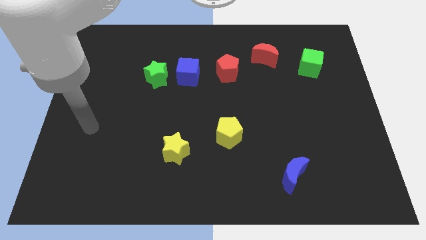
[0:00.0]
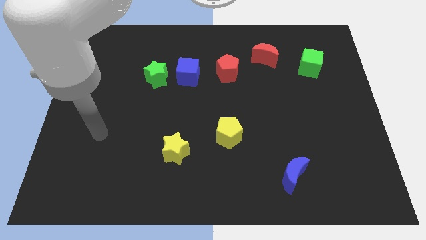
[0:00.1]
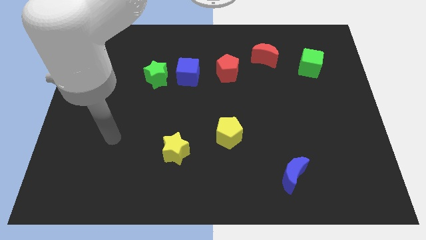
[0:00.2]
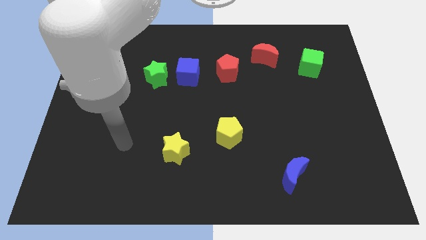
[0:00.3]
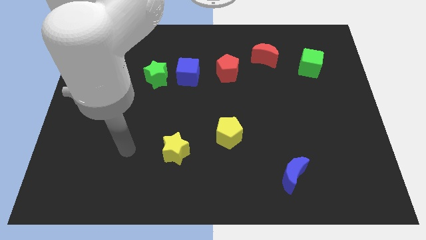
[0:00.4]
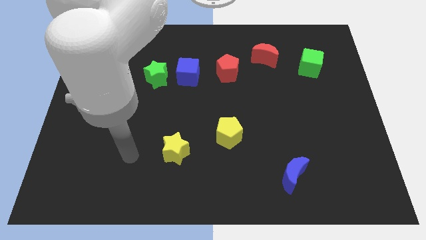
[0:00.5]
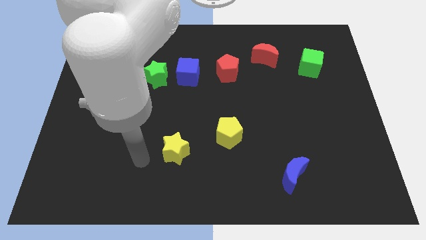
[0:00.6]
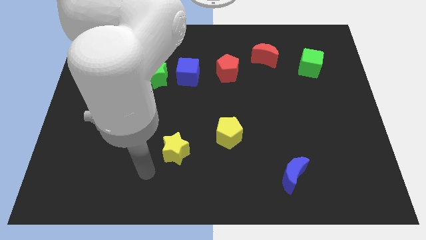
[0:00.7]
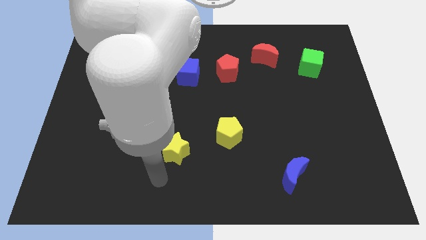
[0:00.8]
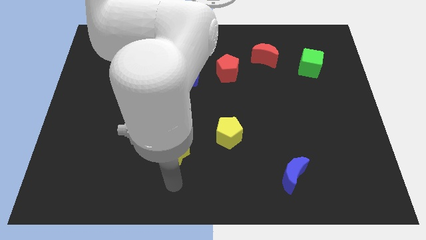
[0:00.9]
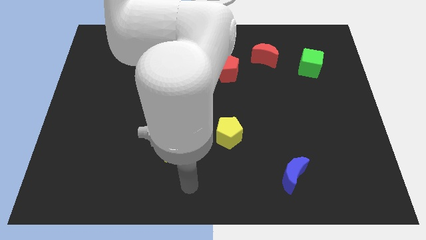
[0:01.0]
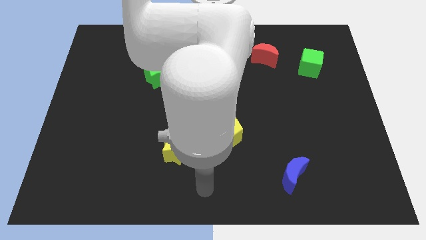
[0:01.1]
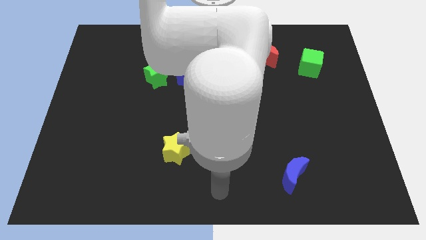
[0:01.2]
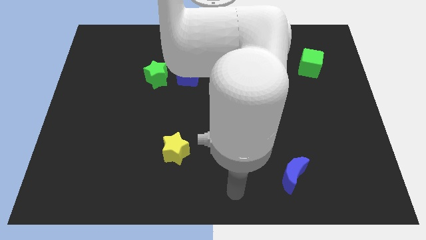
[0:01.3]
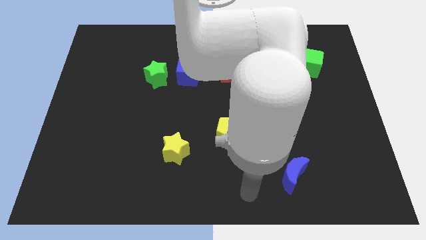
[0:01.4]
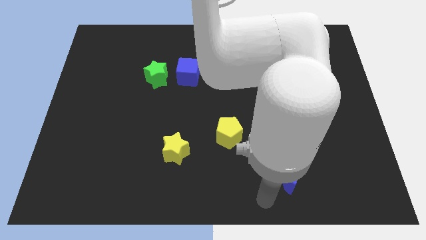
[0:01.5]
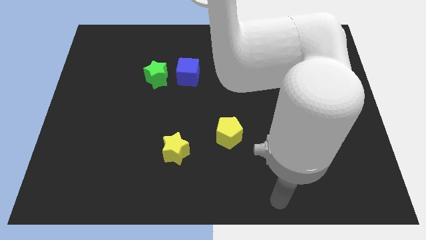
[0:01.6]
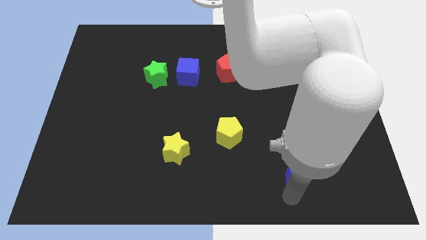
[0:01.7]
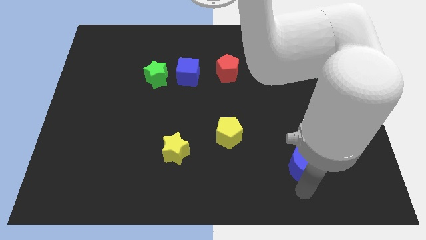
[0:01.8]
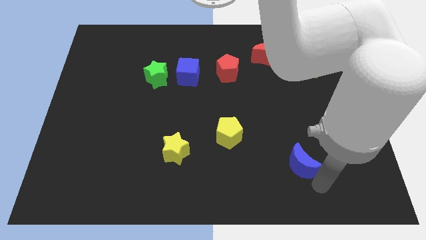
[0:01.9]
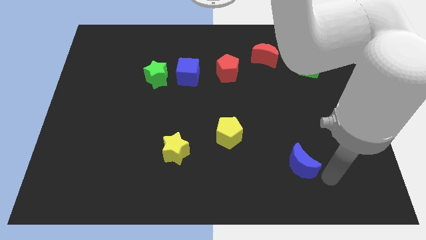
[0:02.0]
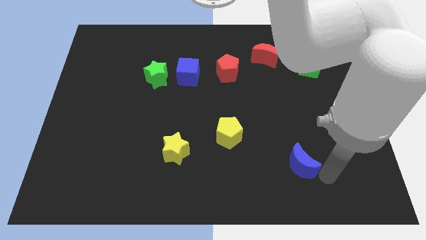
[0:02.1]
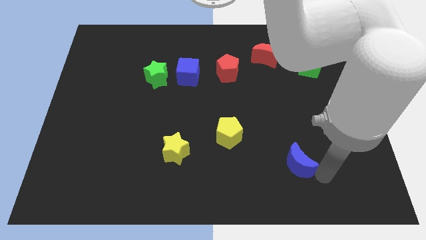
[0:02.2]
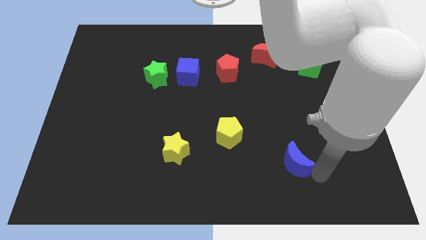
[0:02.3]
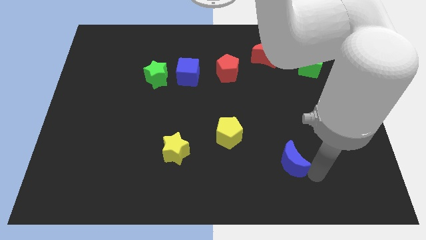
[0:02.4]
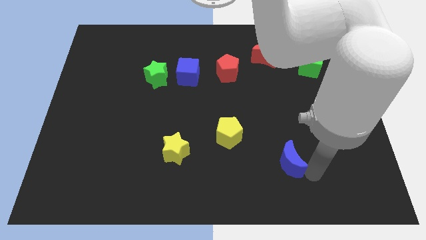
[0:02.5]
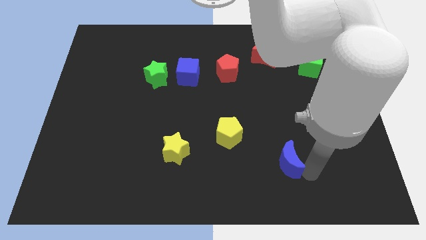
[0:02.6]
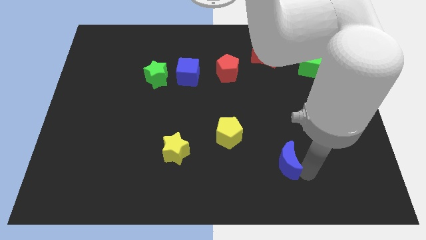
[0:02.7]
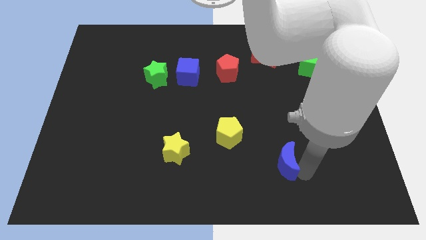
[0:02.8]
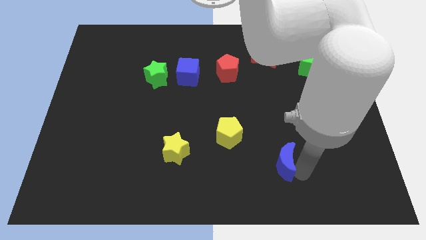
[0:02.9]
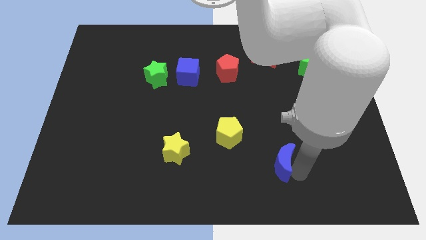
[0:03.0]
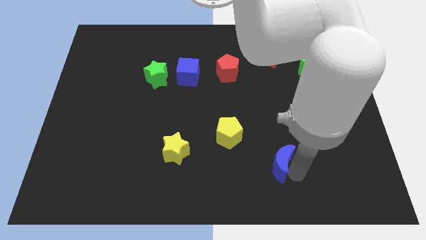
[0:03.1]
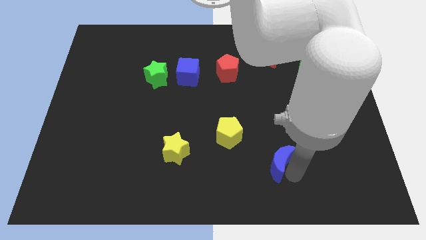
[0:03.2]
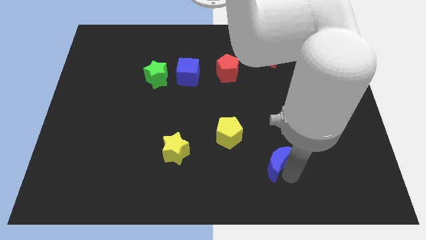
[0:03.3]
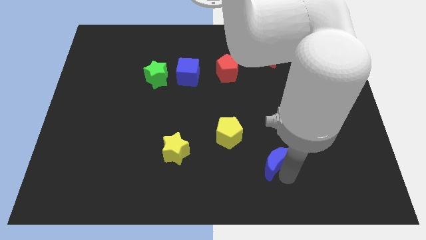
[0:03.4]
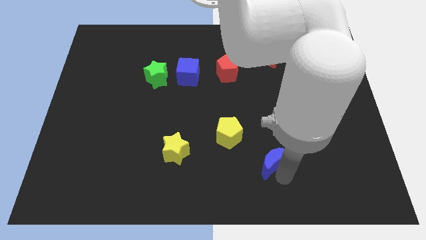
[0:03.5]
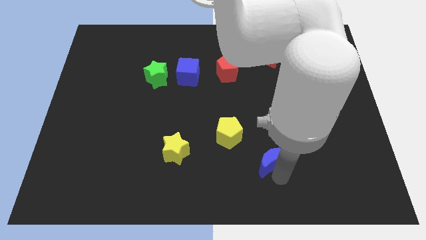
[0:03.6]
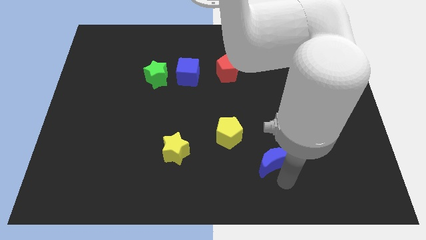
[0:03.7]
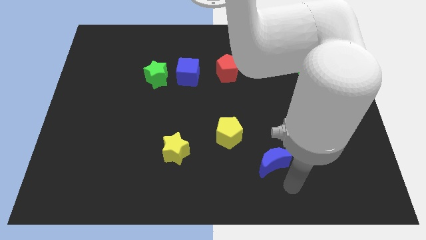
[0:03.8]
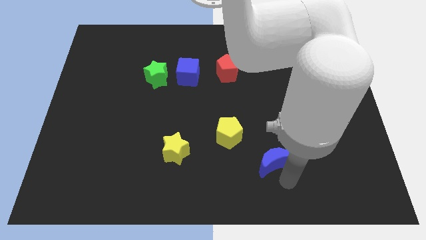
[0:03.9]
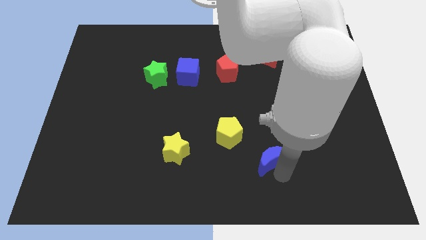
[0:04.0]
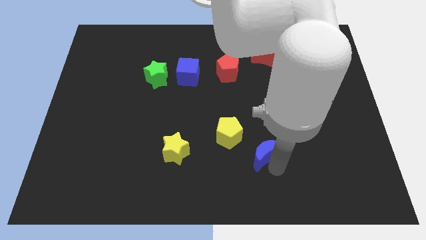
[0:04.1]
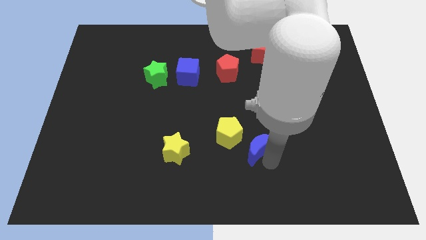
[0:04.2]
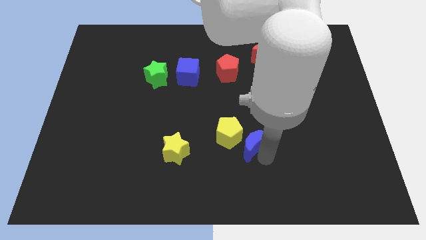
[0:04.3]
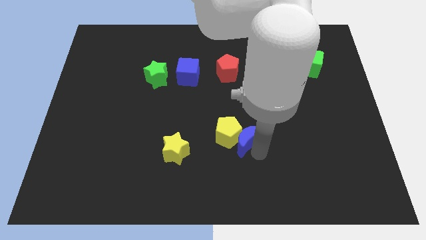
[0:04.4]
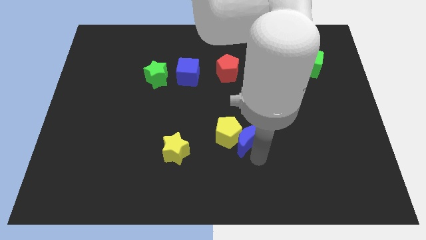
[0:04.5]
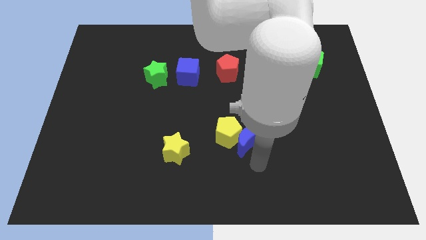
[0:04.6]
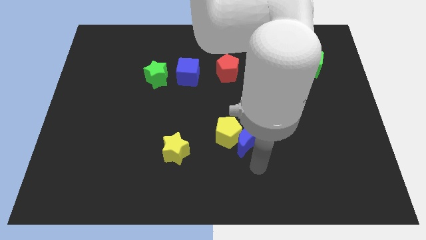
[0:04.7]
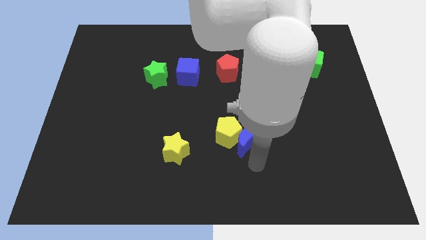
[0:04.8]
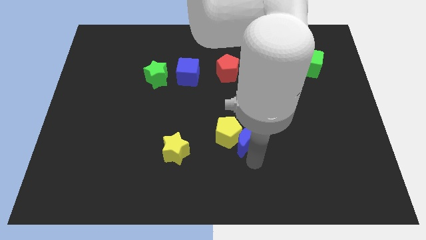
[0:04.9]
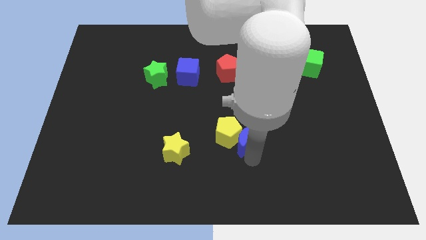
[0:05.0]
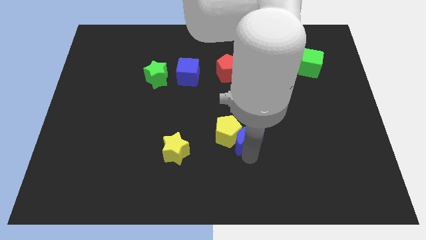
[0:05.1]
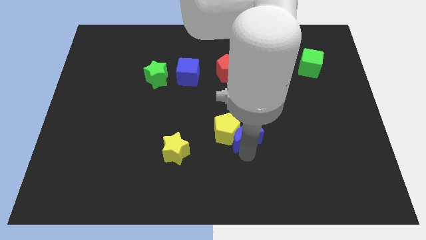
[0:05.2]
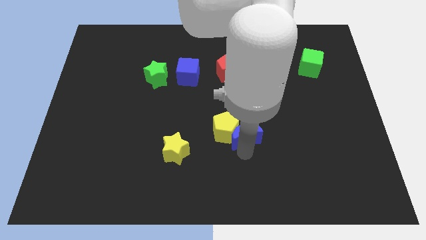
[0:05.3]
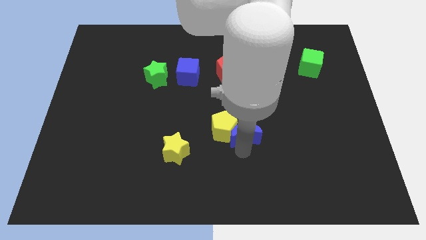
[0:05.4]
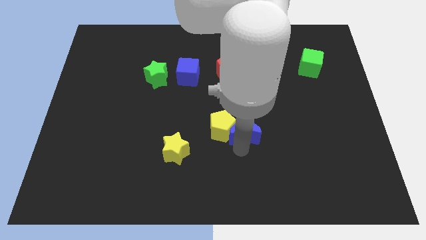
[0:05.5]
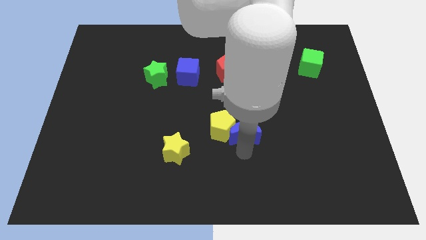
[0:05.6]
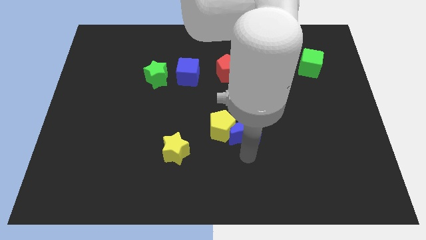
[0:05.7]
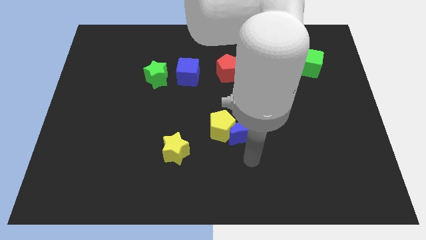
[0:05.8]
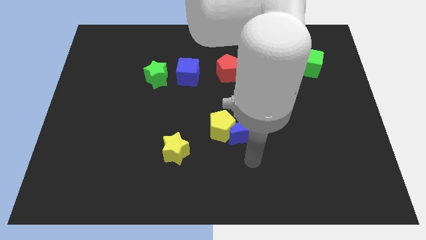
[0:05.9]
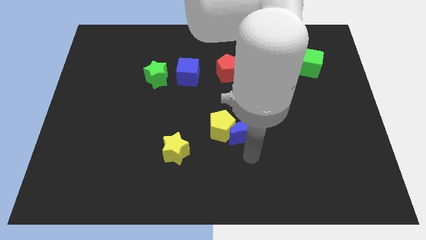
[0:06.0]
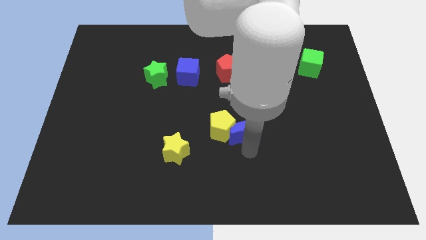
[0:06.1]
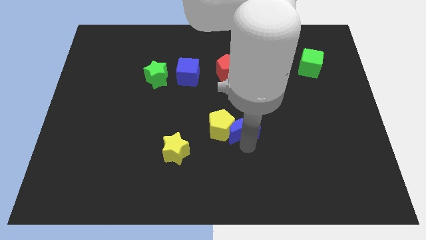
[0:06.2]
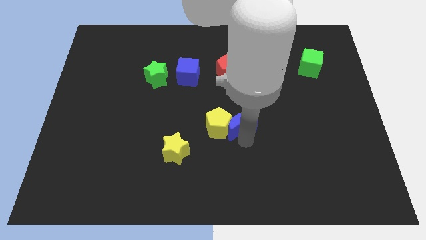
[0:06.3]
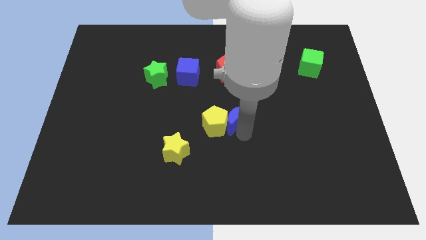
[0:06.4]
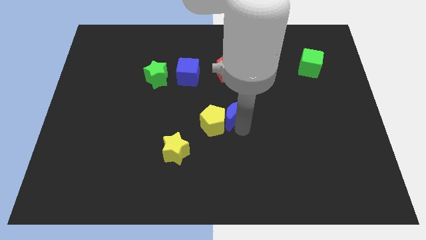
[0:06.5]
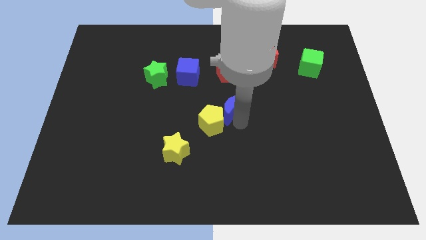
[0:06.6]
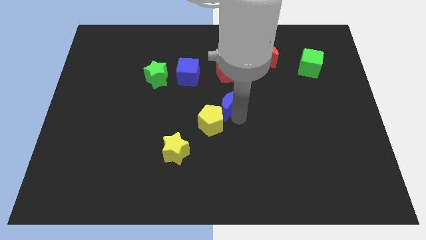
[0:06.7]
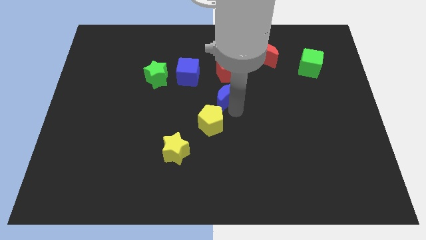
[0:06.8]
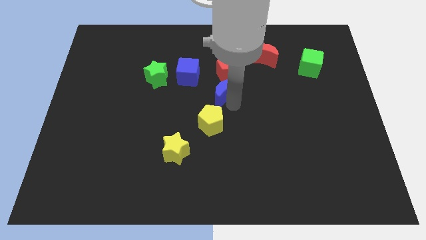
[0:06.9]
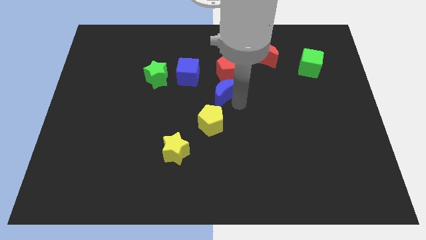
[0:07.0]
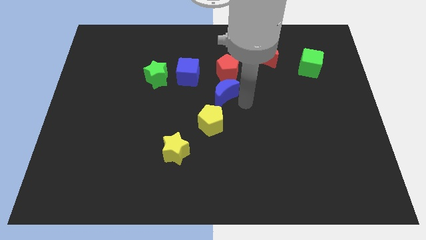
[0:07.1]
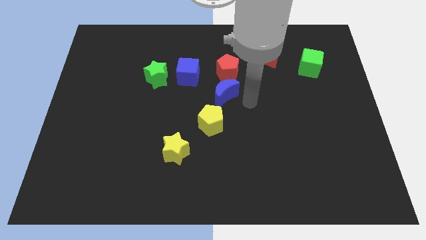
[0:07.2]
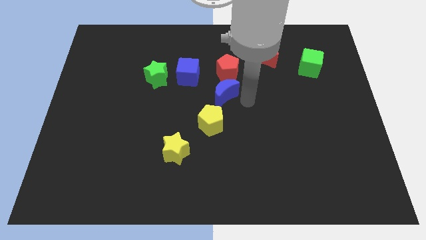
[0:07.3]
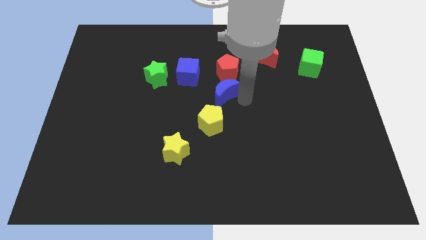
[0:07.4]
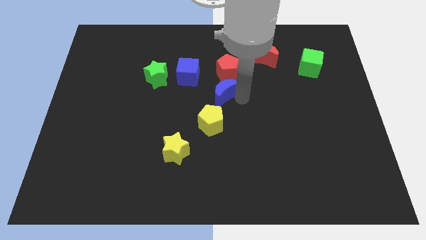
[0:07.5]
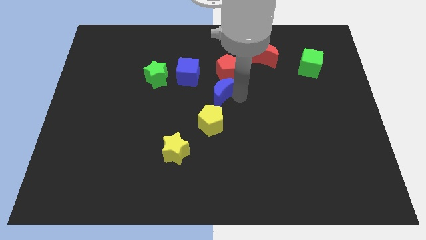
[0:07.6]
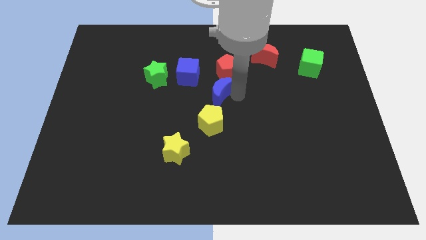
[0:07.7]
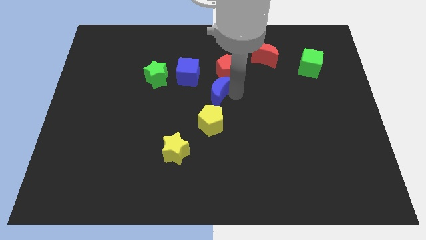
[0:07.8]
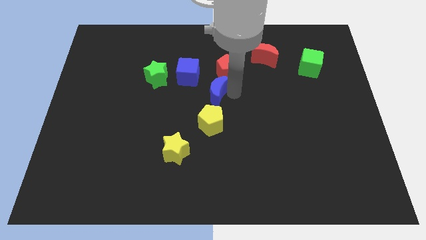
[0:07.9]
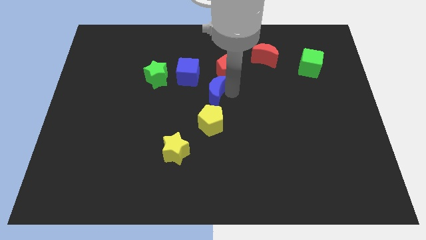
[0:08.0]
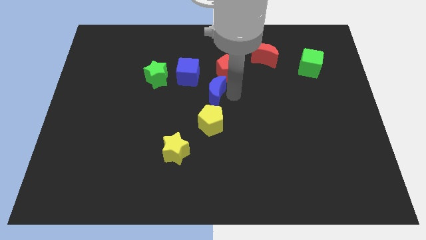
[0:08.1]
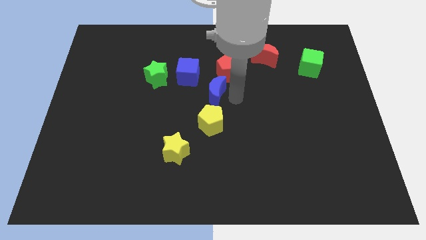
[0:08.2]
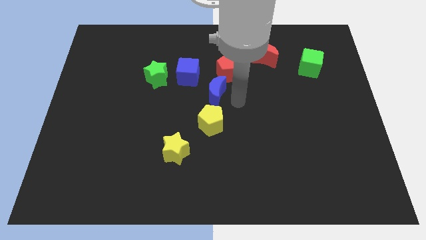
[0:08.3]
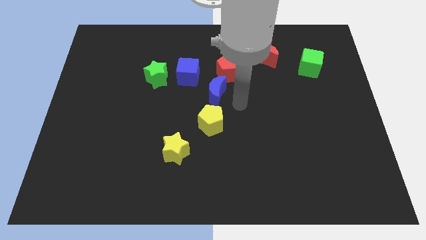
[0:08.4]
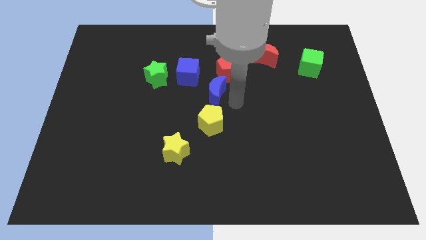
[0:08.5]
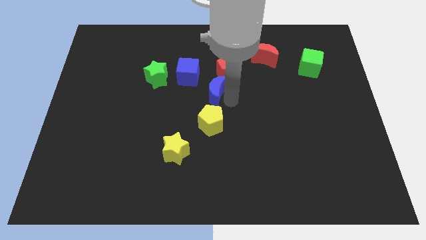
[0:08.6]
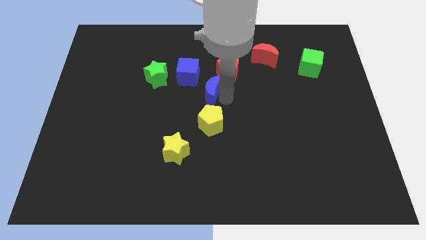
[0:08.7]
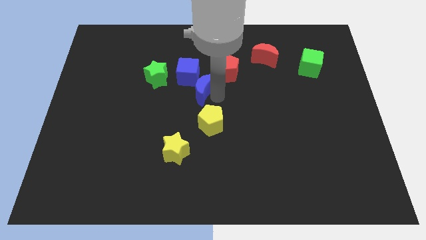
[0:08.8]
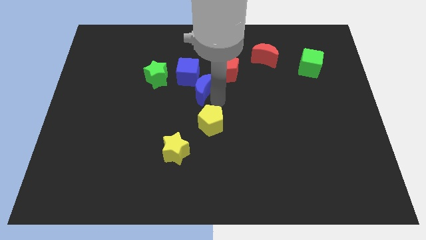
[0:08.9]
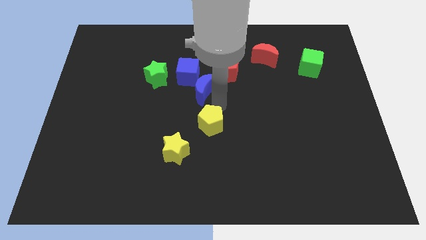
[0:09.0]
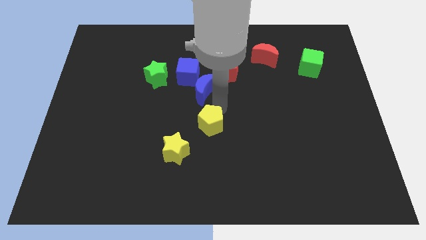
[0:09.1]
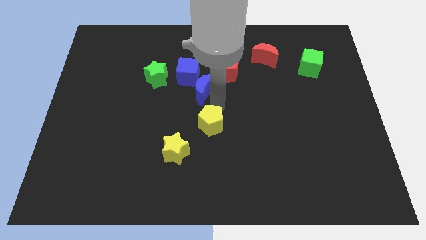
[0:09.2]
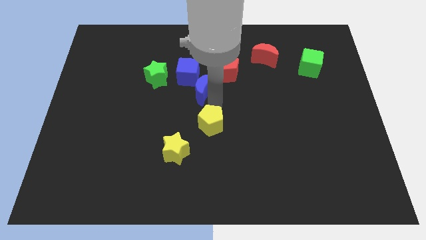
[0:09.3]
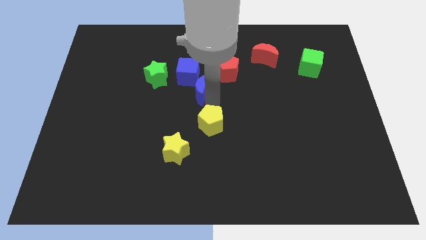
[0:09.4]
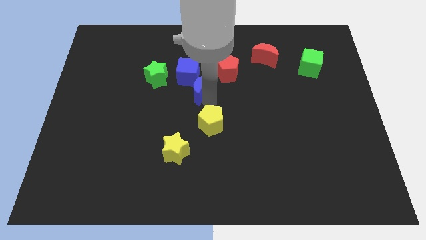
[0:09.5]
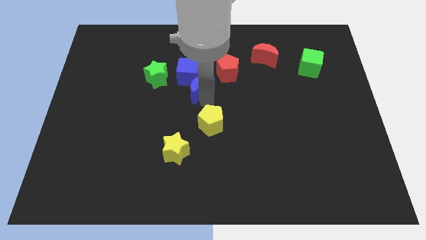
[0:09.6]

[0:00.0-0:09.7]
slide the blue moon next to the blue cube
